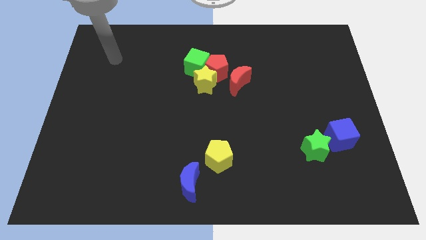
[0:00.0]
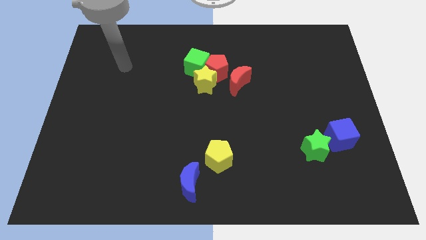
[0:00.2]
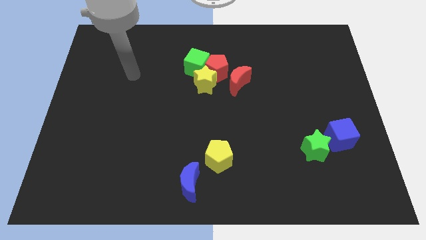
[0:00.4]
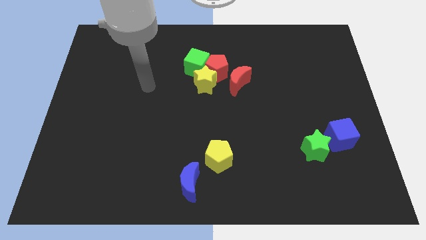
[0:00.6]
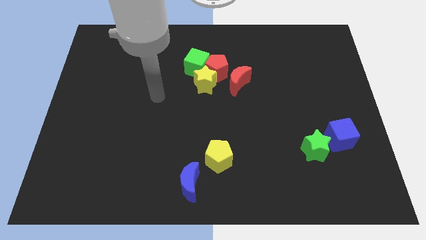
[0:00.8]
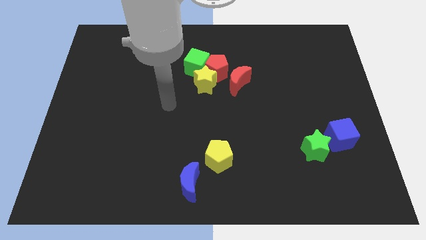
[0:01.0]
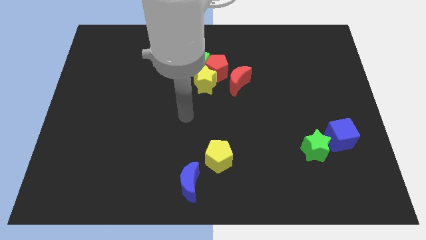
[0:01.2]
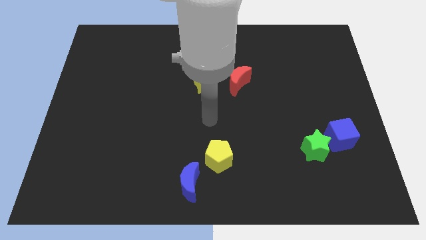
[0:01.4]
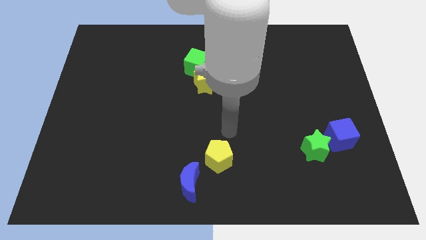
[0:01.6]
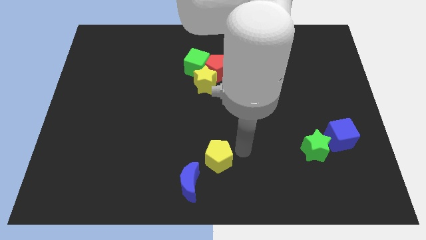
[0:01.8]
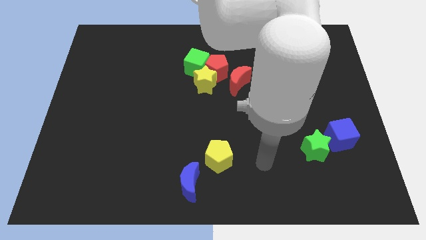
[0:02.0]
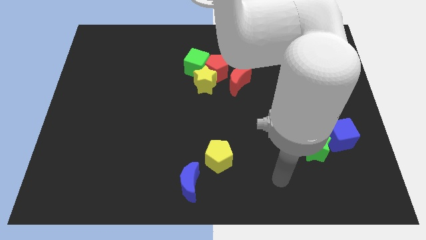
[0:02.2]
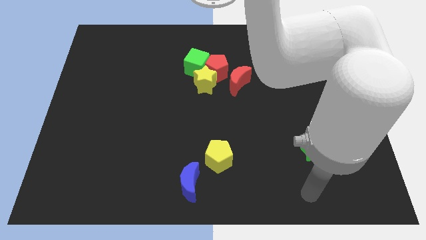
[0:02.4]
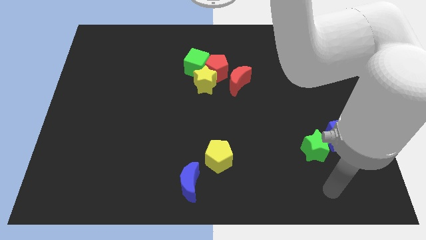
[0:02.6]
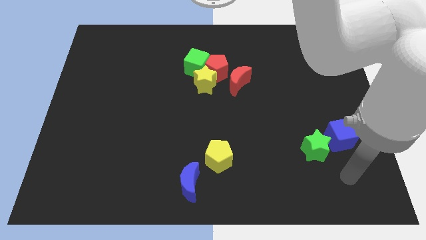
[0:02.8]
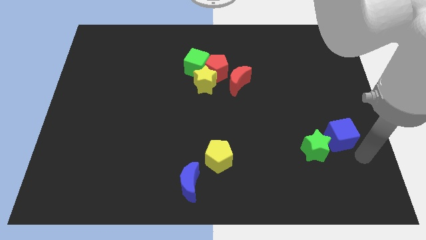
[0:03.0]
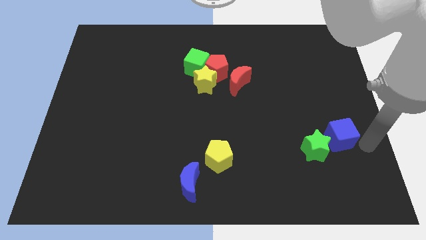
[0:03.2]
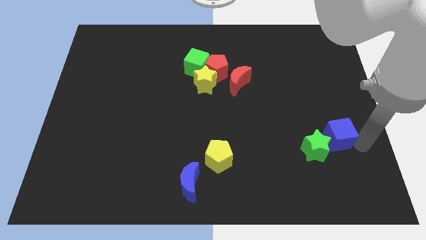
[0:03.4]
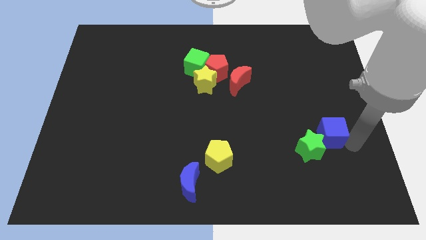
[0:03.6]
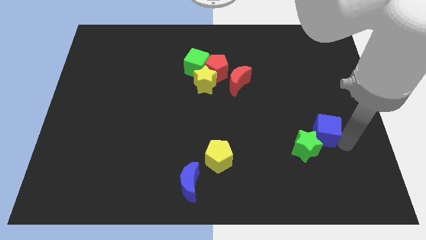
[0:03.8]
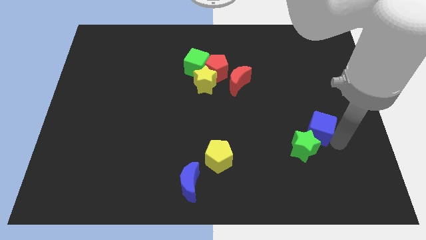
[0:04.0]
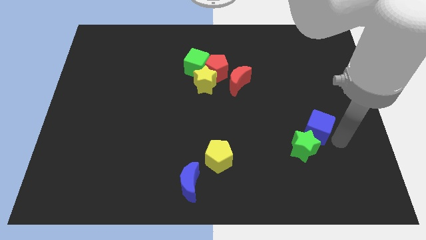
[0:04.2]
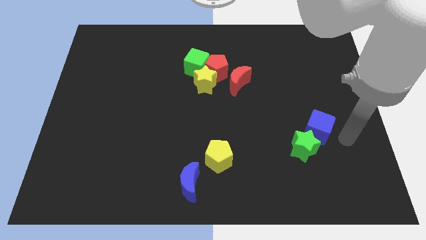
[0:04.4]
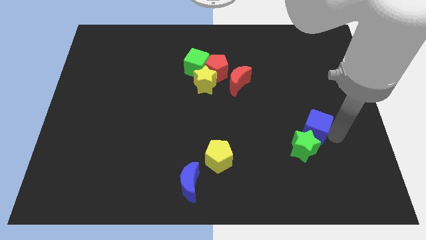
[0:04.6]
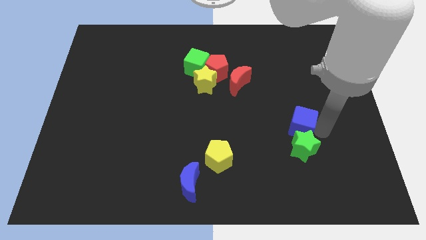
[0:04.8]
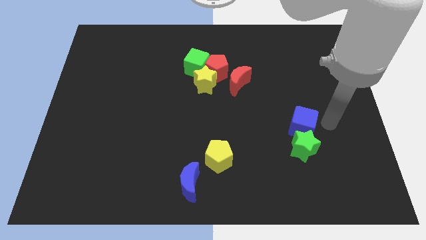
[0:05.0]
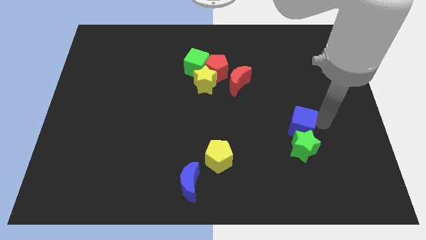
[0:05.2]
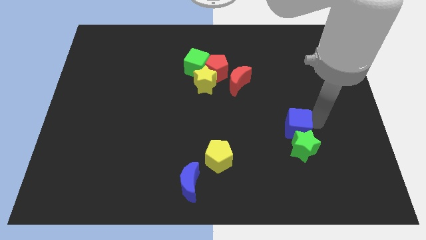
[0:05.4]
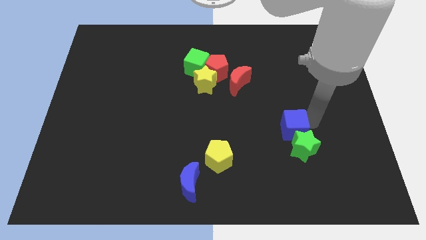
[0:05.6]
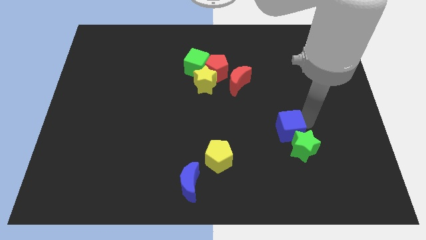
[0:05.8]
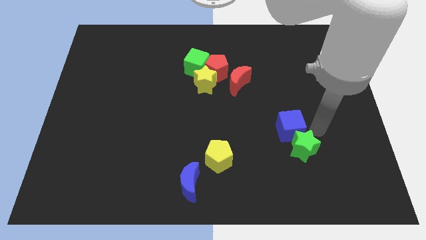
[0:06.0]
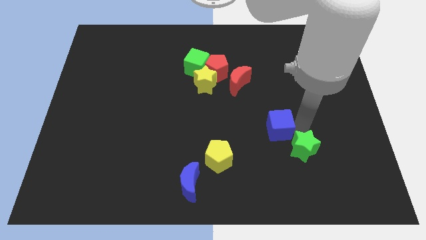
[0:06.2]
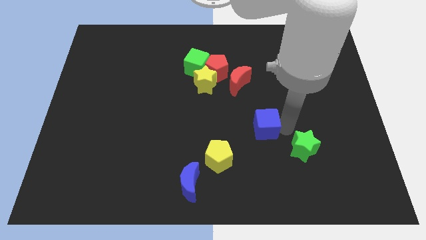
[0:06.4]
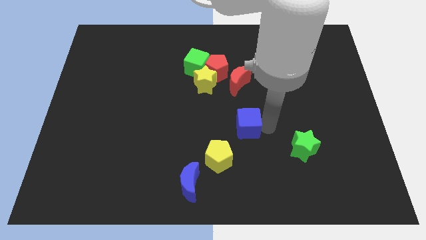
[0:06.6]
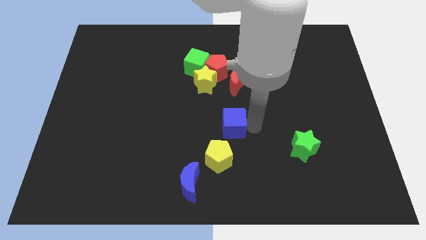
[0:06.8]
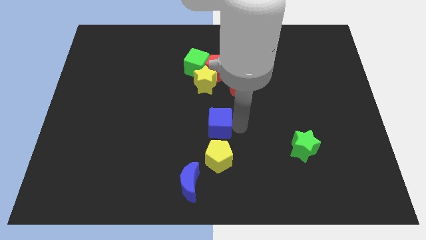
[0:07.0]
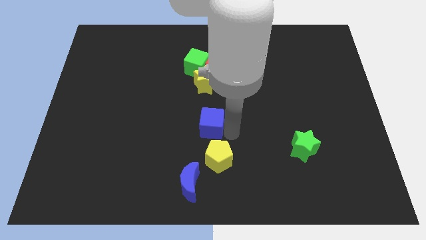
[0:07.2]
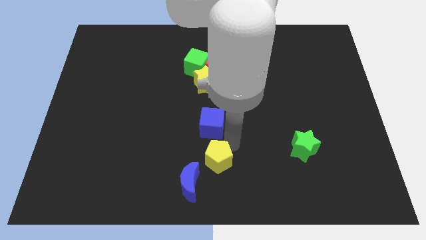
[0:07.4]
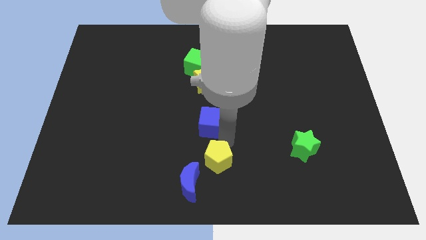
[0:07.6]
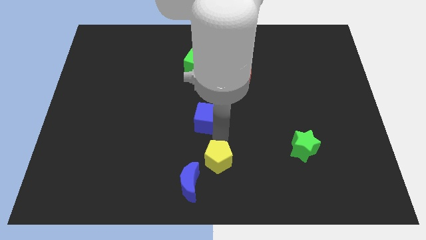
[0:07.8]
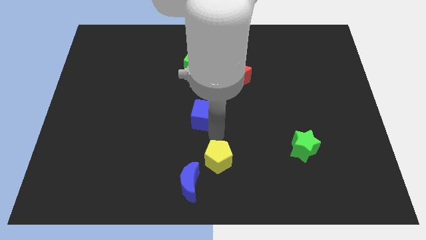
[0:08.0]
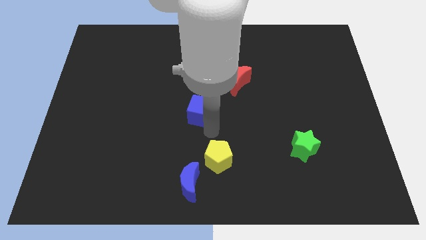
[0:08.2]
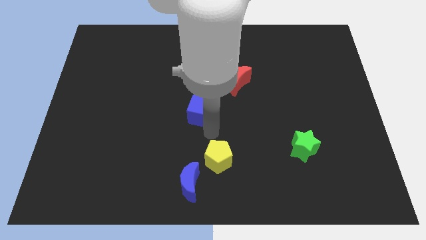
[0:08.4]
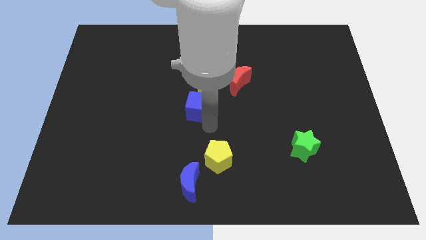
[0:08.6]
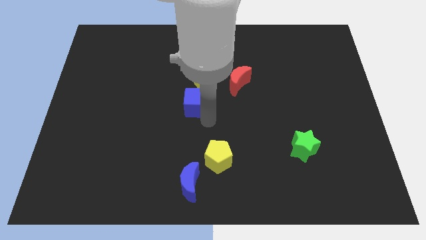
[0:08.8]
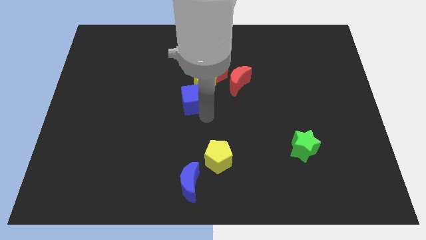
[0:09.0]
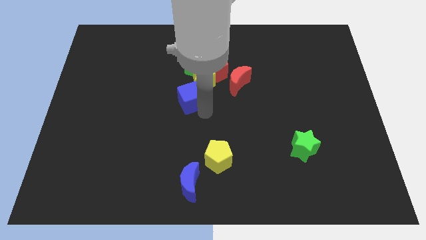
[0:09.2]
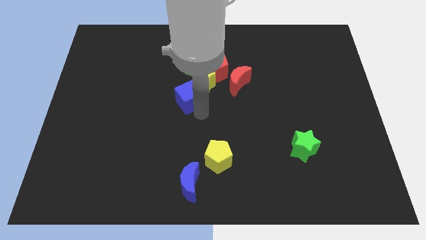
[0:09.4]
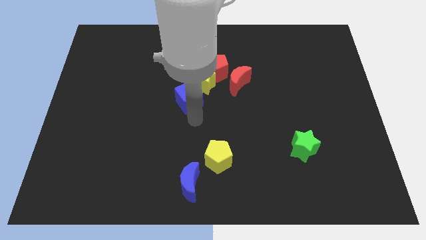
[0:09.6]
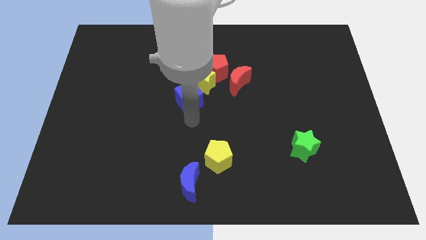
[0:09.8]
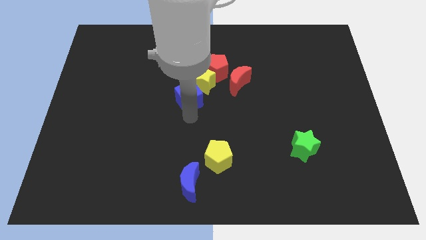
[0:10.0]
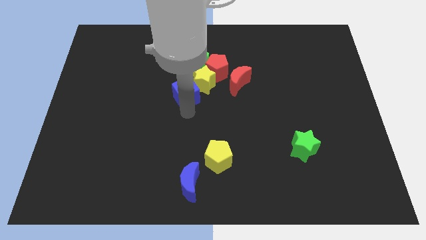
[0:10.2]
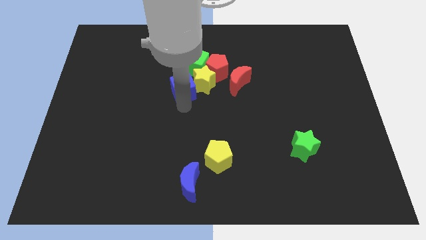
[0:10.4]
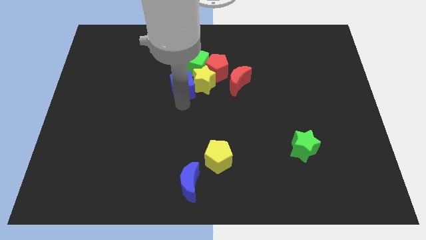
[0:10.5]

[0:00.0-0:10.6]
slide the blue cube diagonally up and to the left of the yellow star

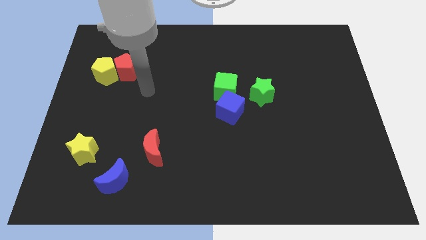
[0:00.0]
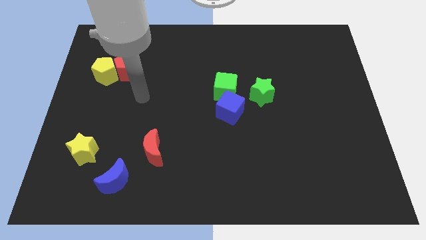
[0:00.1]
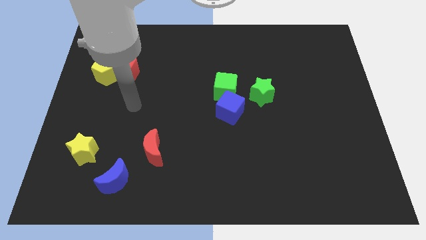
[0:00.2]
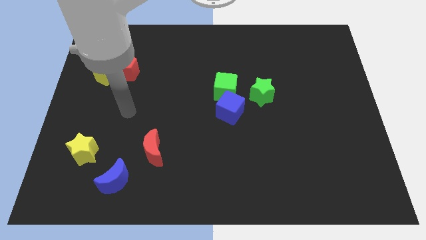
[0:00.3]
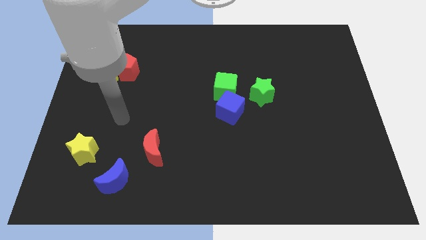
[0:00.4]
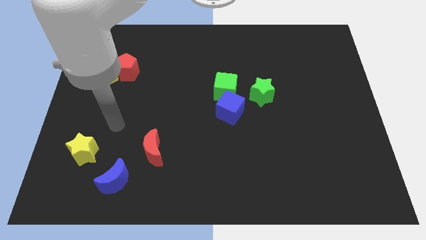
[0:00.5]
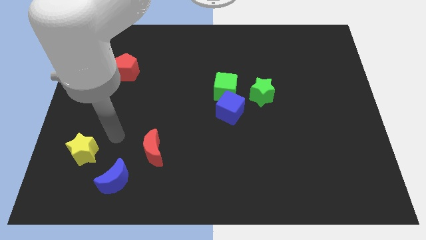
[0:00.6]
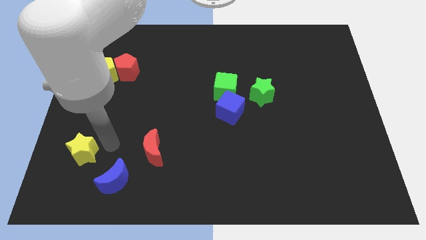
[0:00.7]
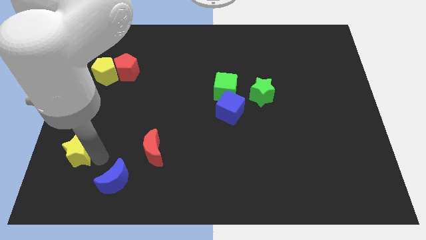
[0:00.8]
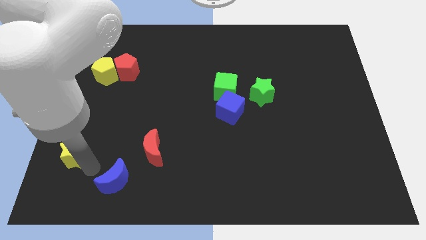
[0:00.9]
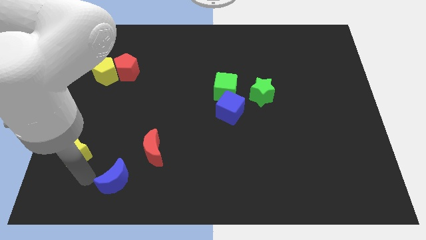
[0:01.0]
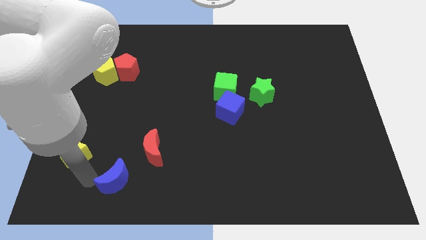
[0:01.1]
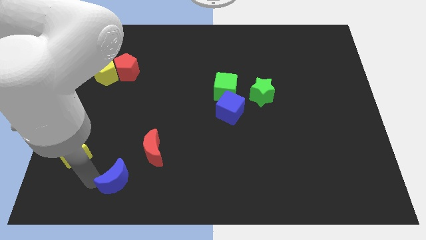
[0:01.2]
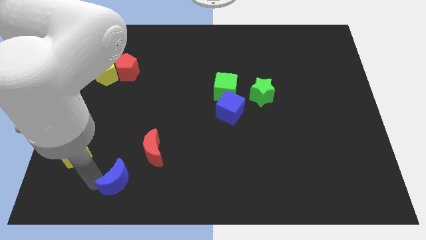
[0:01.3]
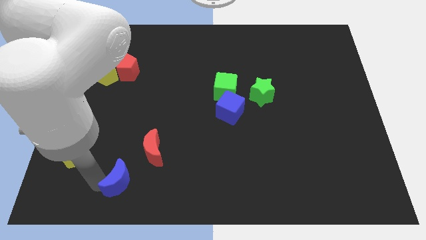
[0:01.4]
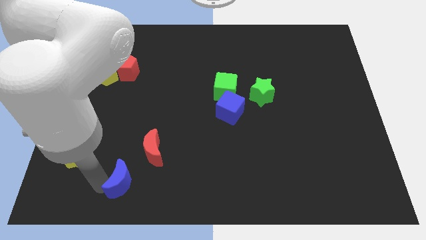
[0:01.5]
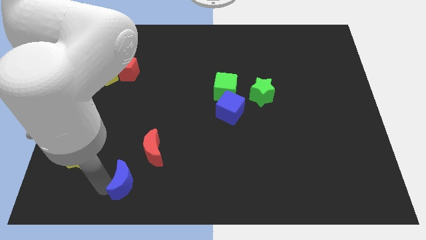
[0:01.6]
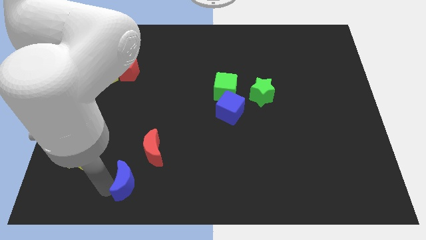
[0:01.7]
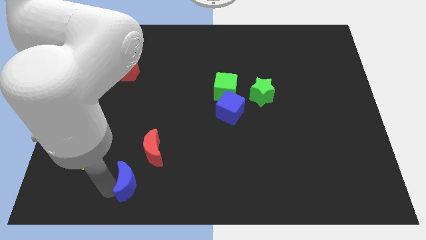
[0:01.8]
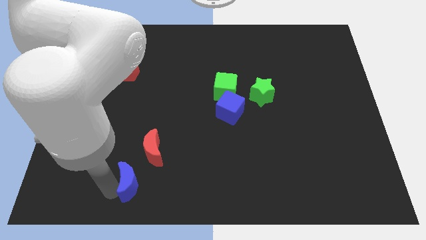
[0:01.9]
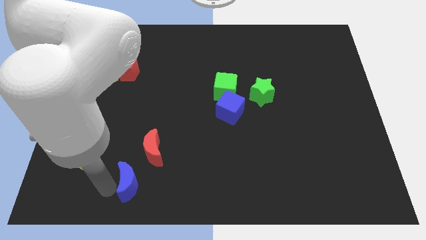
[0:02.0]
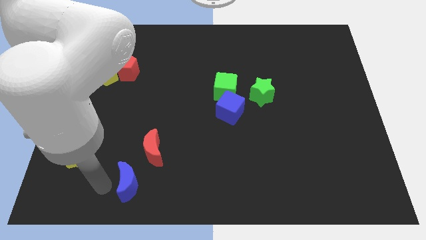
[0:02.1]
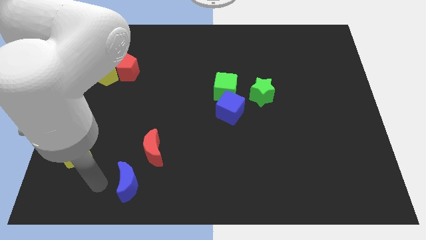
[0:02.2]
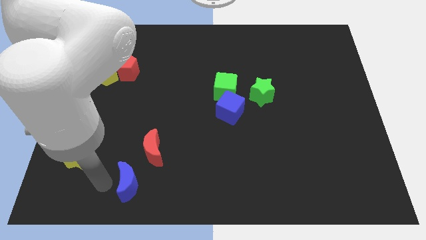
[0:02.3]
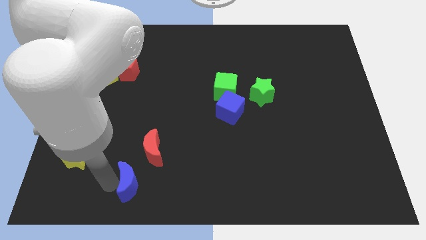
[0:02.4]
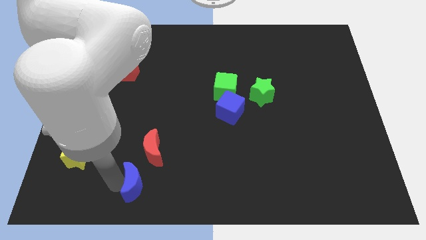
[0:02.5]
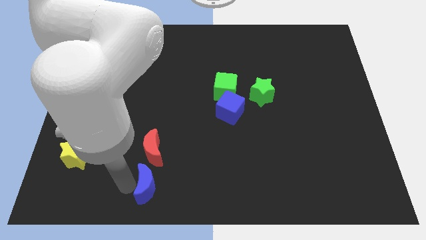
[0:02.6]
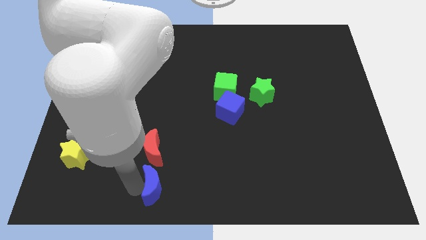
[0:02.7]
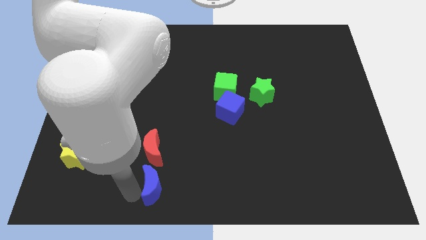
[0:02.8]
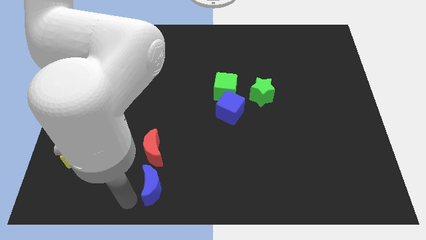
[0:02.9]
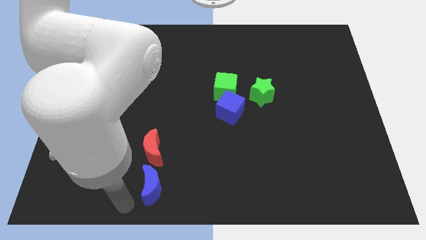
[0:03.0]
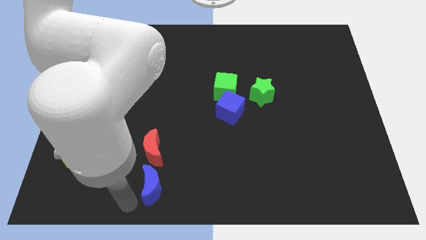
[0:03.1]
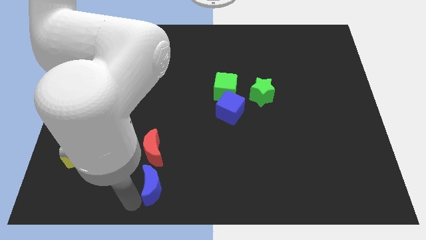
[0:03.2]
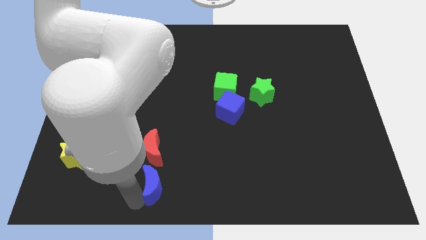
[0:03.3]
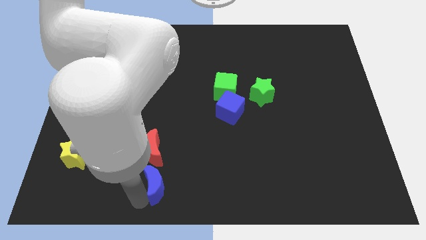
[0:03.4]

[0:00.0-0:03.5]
put the blue moon to the bottom right of the red moon
